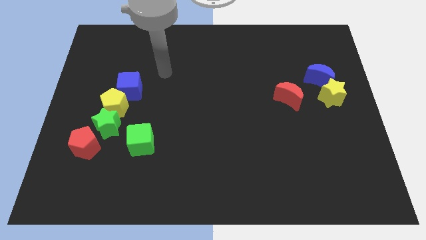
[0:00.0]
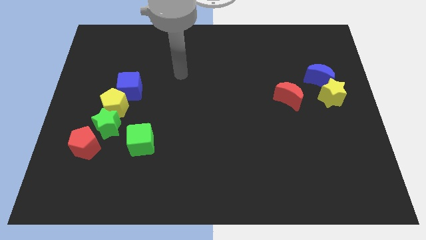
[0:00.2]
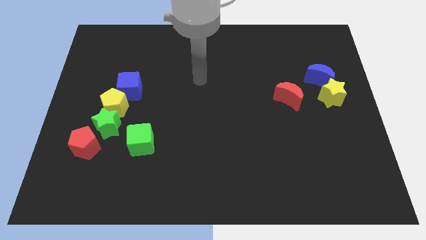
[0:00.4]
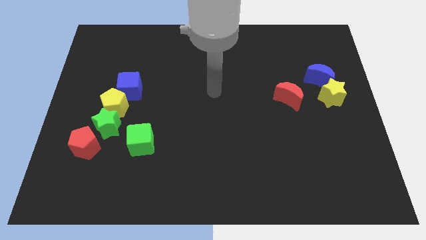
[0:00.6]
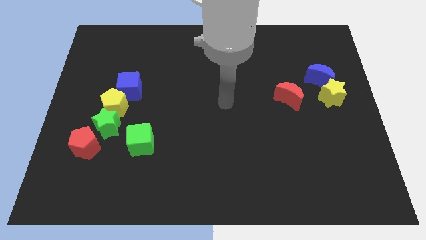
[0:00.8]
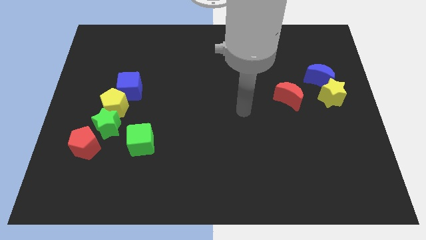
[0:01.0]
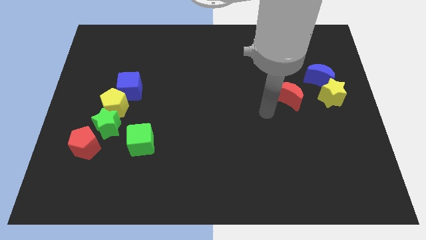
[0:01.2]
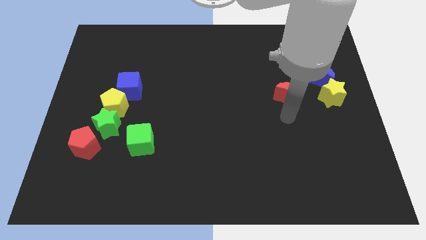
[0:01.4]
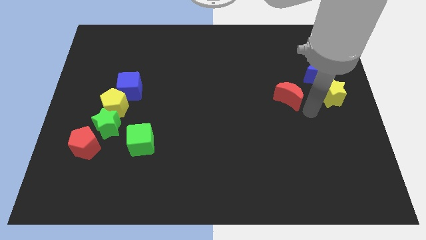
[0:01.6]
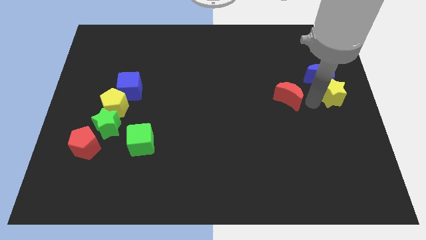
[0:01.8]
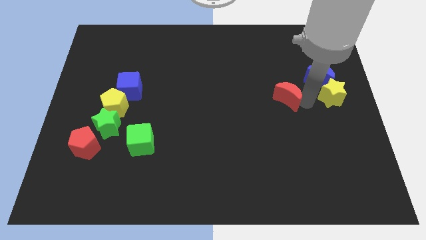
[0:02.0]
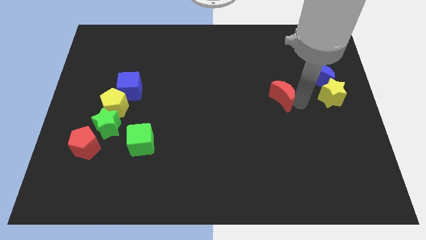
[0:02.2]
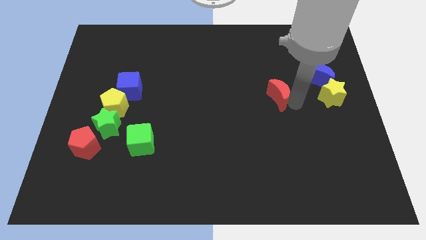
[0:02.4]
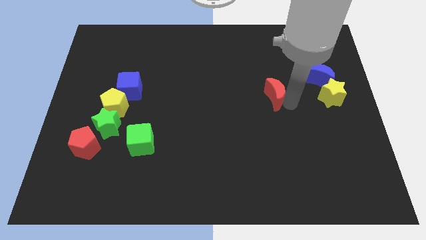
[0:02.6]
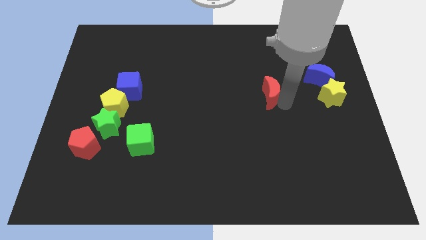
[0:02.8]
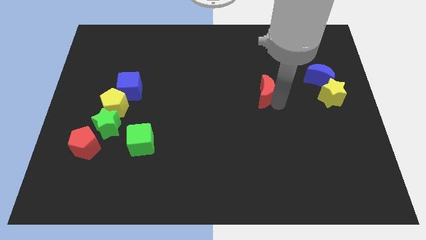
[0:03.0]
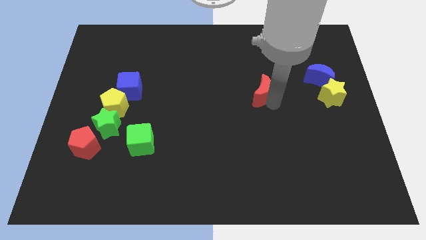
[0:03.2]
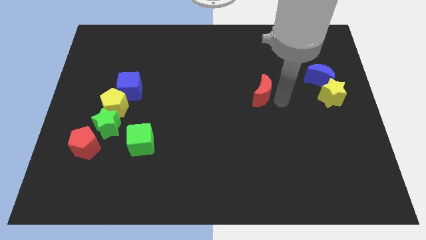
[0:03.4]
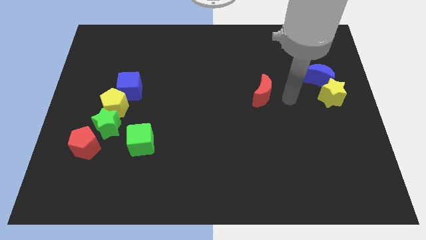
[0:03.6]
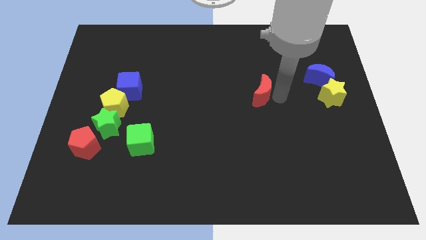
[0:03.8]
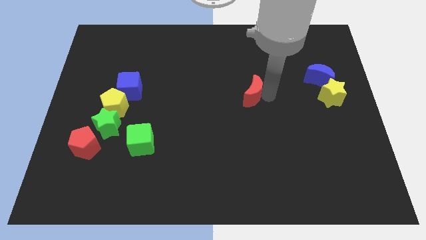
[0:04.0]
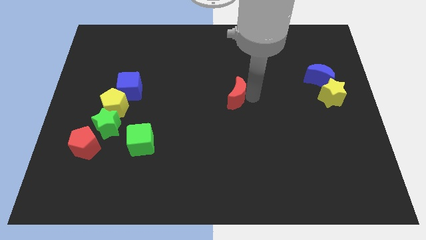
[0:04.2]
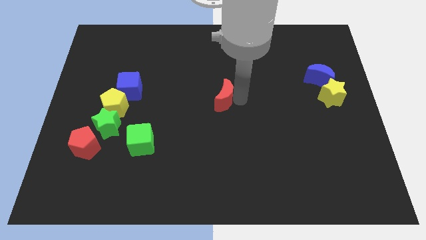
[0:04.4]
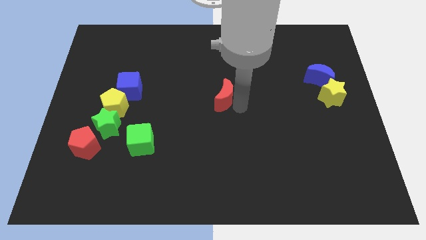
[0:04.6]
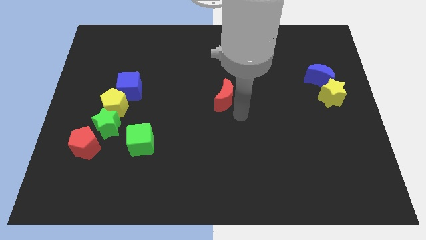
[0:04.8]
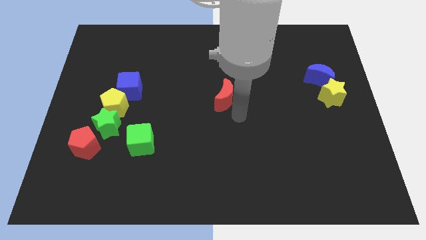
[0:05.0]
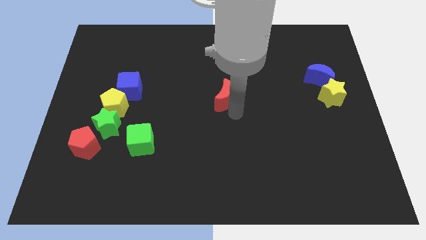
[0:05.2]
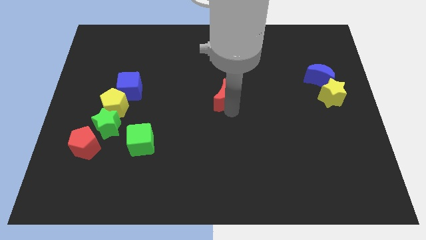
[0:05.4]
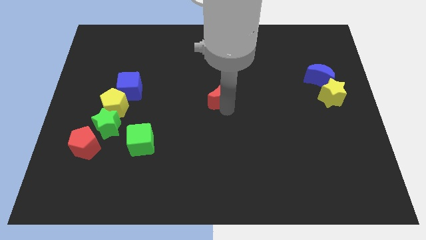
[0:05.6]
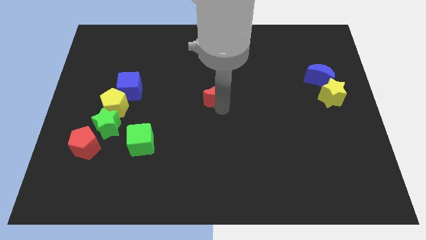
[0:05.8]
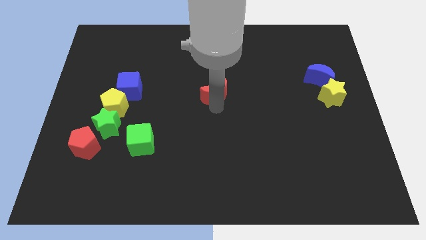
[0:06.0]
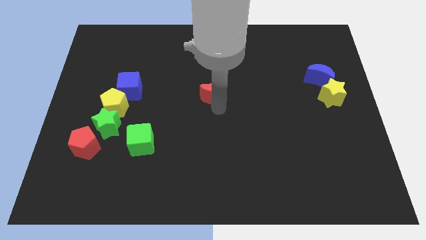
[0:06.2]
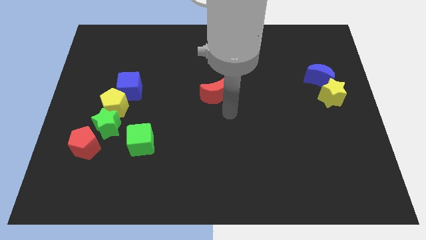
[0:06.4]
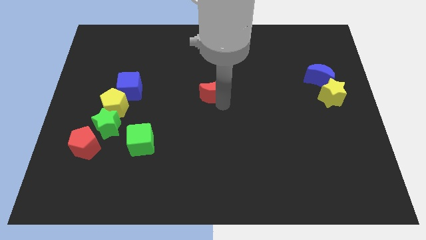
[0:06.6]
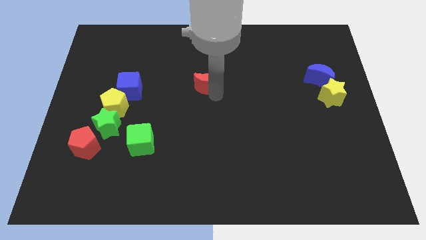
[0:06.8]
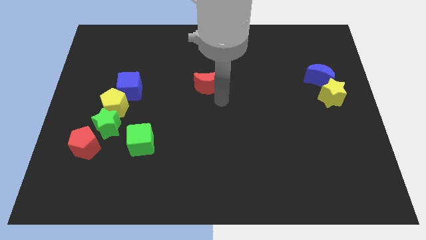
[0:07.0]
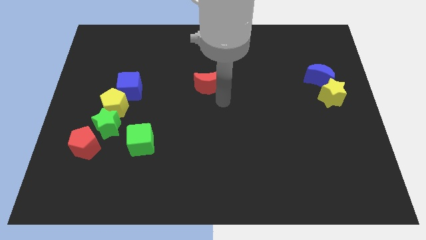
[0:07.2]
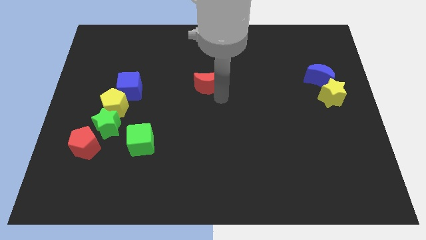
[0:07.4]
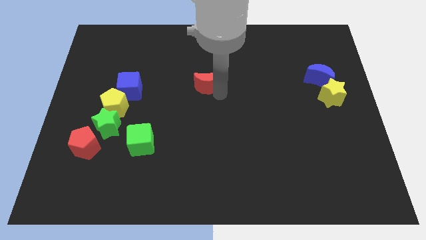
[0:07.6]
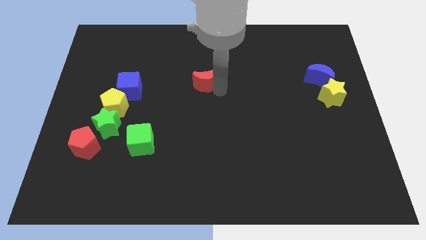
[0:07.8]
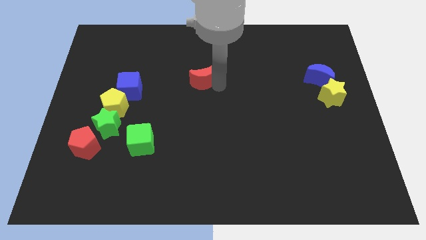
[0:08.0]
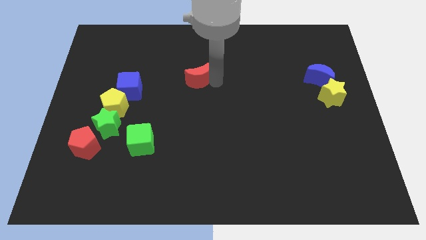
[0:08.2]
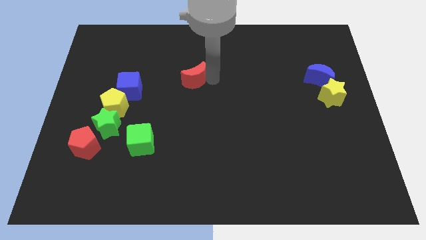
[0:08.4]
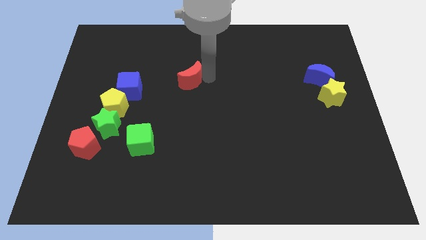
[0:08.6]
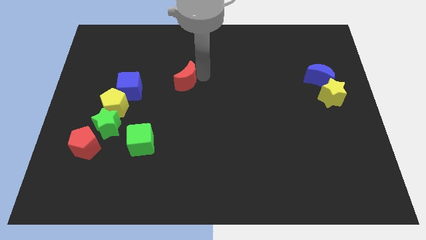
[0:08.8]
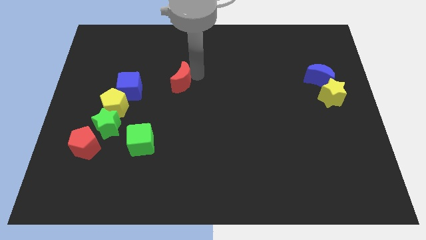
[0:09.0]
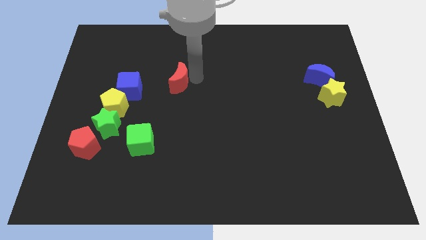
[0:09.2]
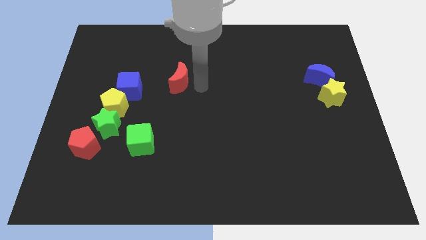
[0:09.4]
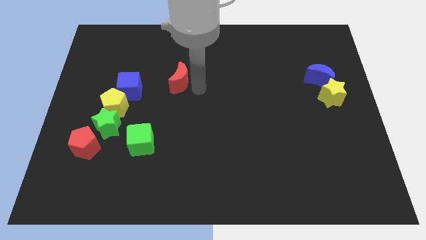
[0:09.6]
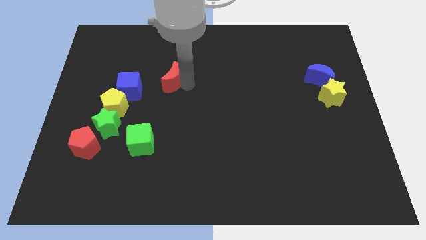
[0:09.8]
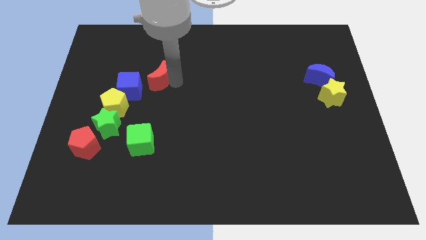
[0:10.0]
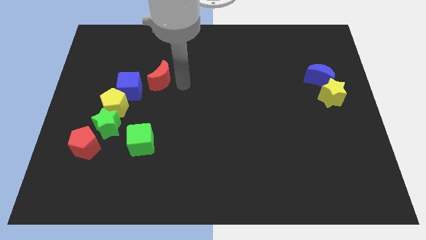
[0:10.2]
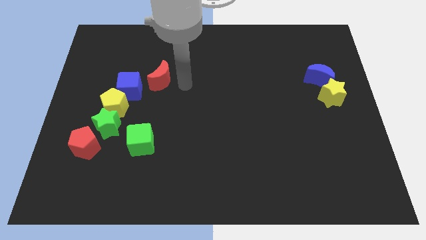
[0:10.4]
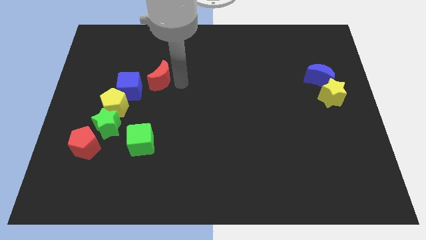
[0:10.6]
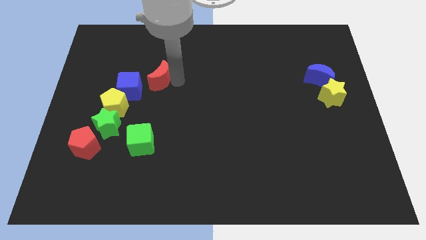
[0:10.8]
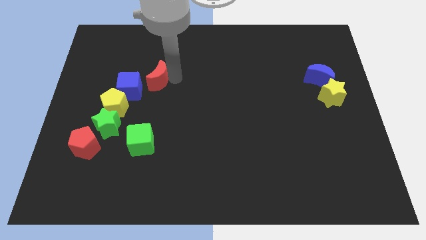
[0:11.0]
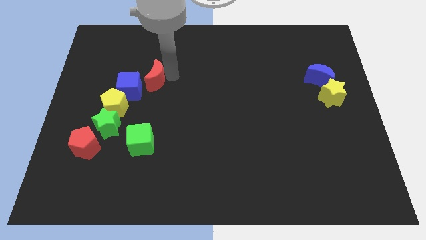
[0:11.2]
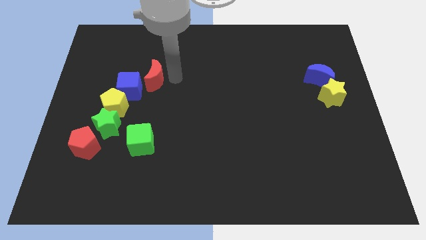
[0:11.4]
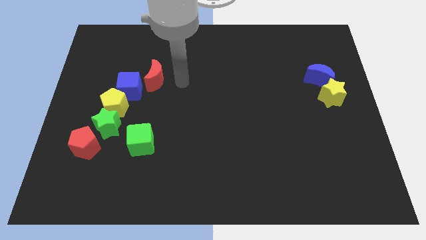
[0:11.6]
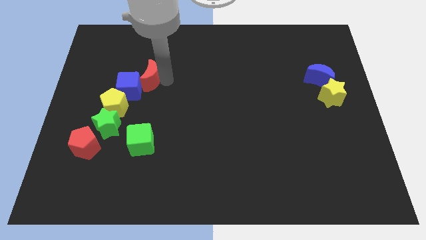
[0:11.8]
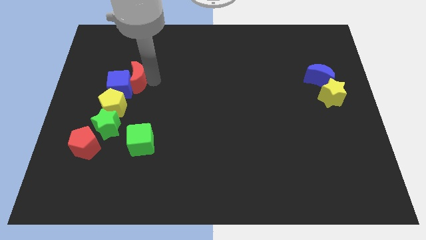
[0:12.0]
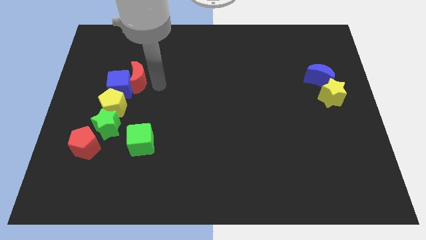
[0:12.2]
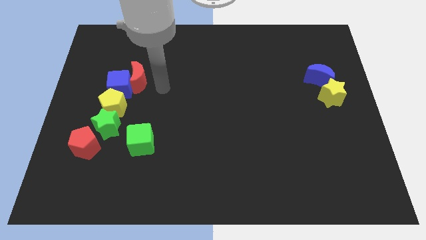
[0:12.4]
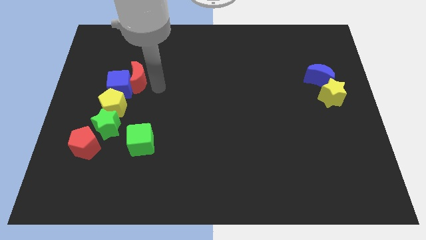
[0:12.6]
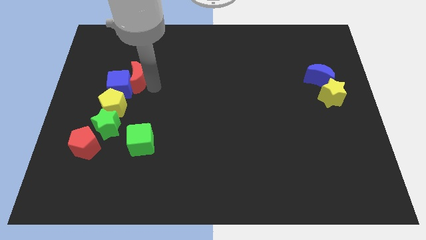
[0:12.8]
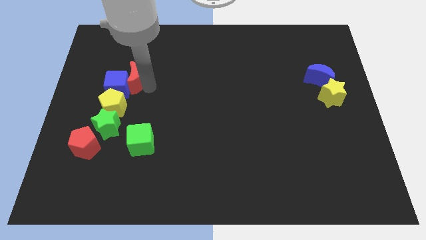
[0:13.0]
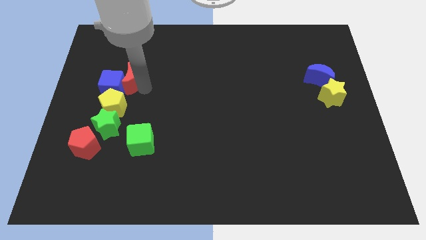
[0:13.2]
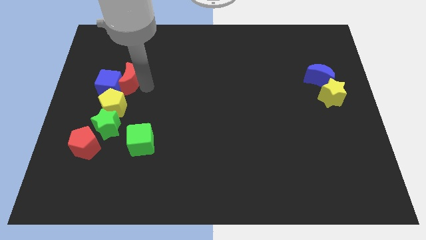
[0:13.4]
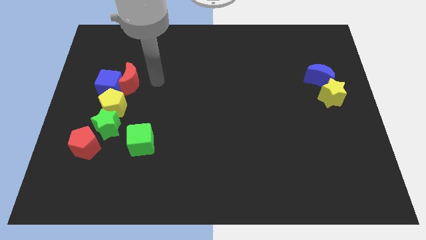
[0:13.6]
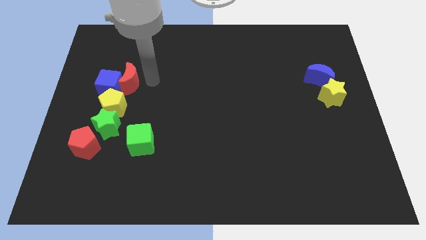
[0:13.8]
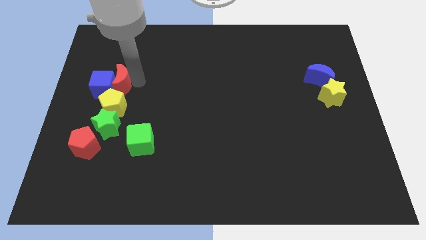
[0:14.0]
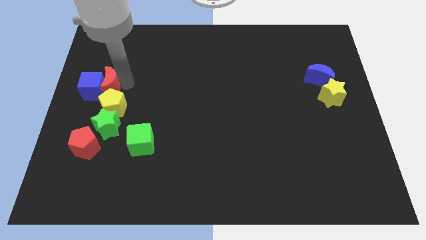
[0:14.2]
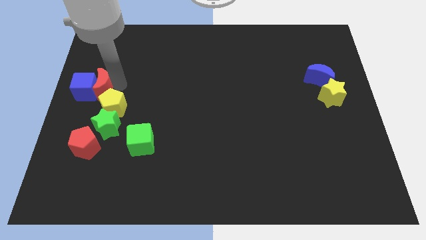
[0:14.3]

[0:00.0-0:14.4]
slide the red moon to the left side of the board

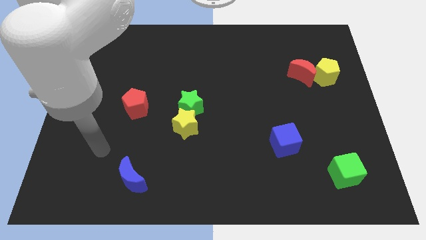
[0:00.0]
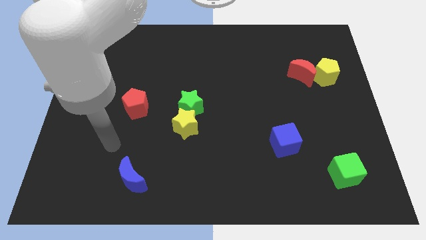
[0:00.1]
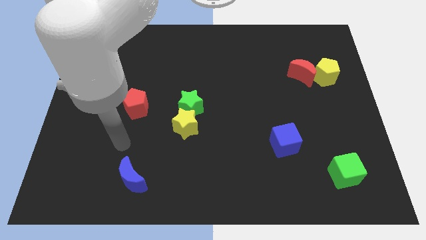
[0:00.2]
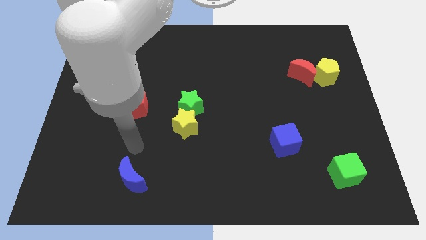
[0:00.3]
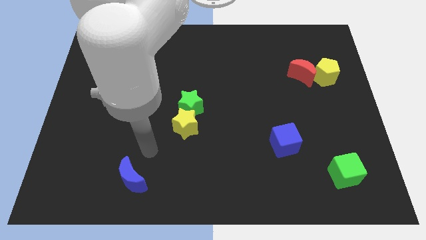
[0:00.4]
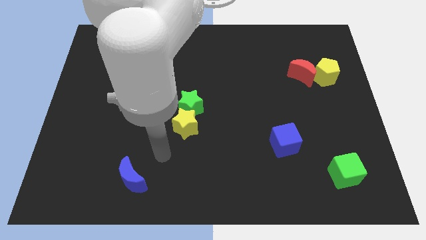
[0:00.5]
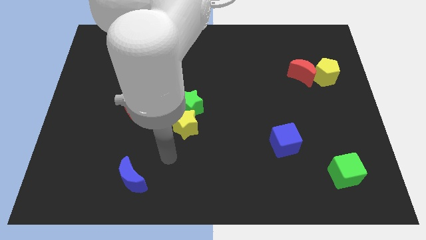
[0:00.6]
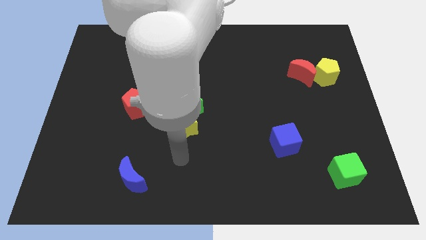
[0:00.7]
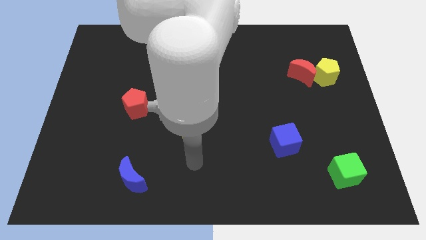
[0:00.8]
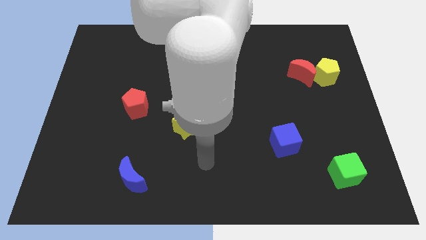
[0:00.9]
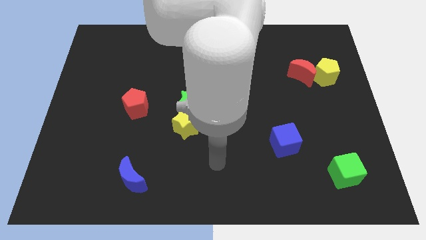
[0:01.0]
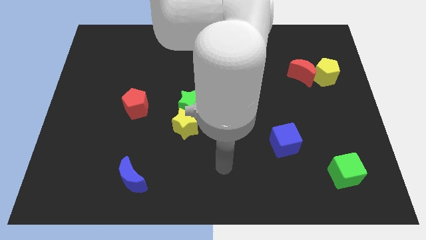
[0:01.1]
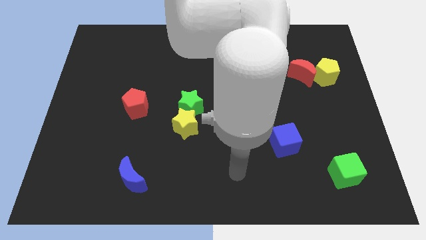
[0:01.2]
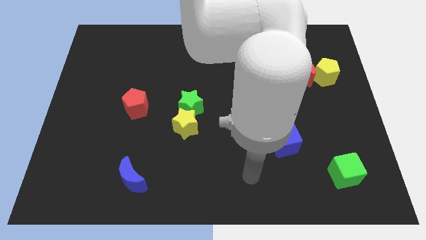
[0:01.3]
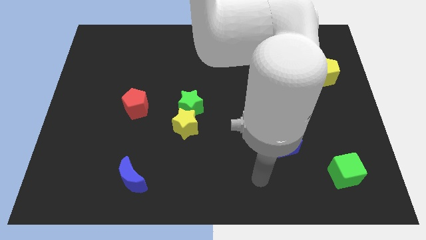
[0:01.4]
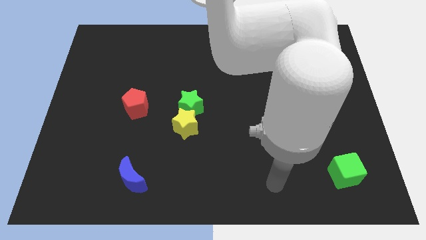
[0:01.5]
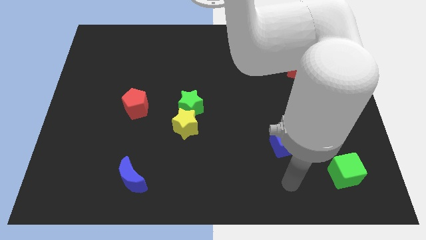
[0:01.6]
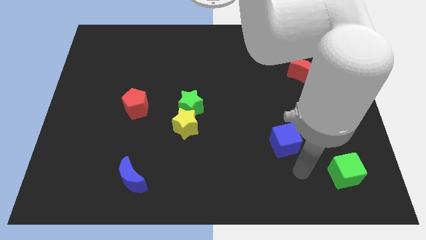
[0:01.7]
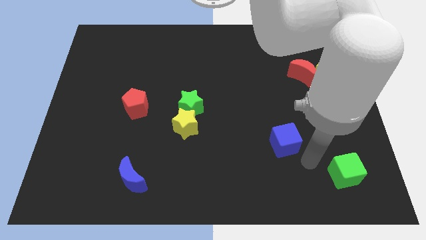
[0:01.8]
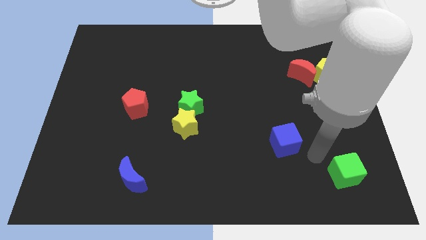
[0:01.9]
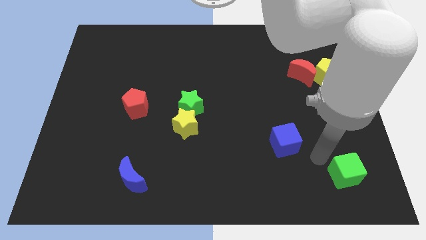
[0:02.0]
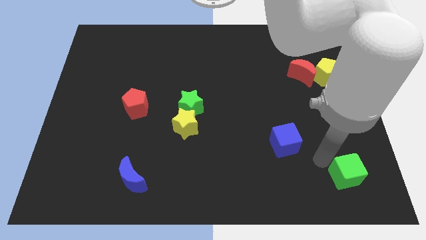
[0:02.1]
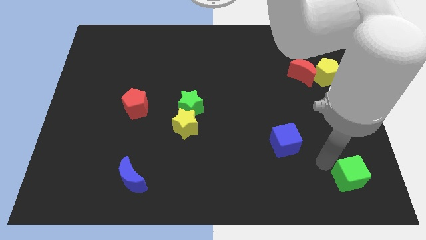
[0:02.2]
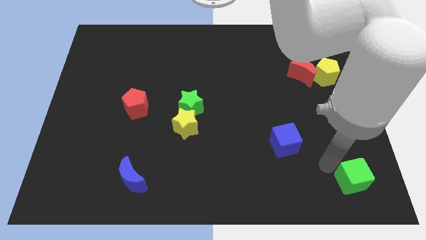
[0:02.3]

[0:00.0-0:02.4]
move the green cube to the lower right corner
